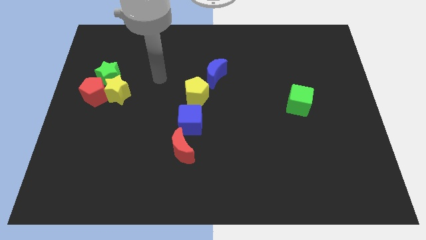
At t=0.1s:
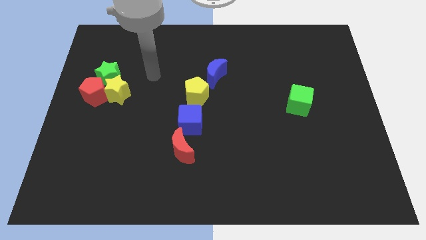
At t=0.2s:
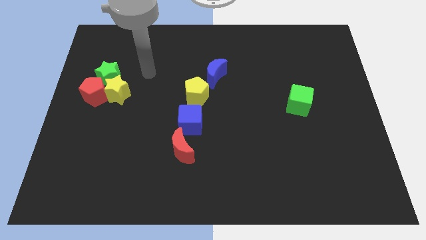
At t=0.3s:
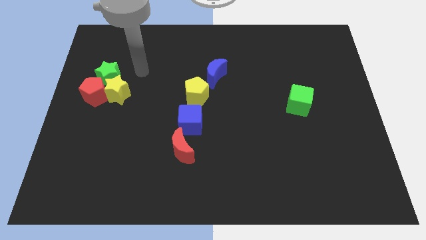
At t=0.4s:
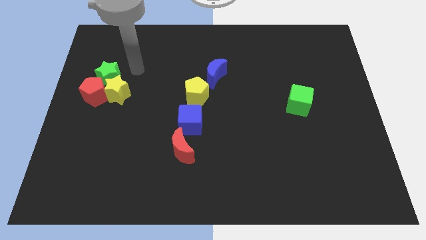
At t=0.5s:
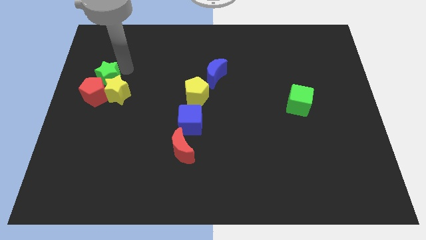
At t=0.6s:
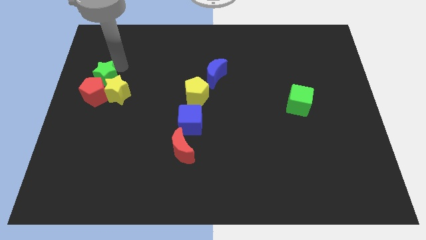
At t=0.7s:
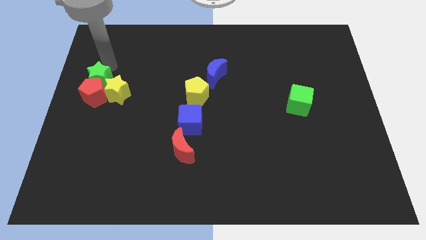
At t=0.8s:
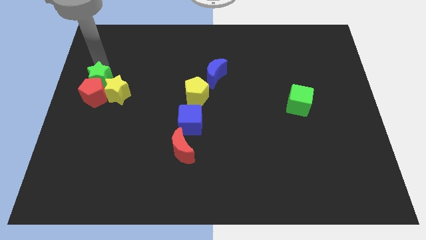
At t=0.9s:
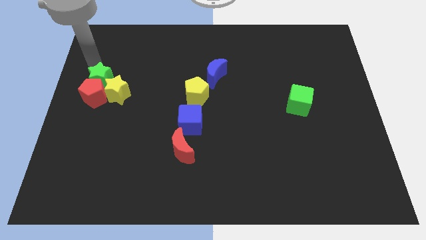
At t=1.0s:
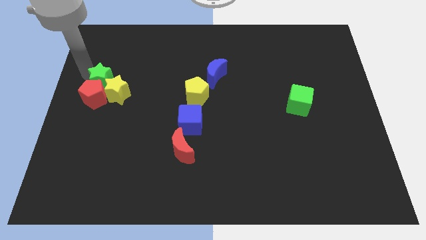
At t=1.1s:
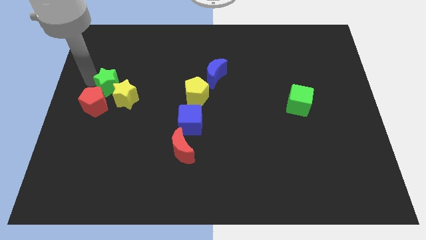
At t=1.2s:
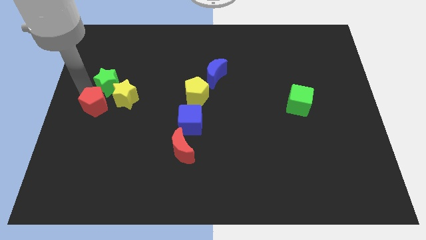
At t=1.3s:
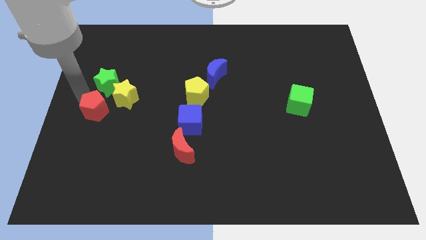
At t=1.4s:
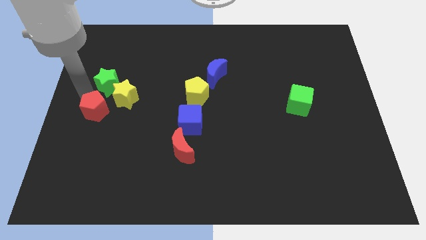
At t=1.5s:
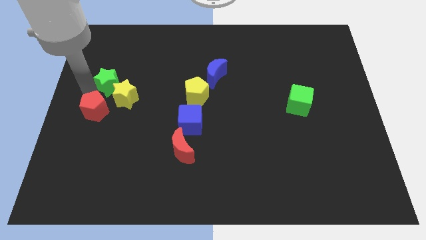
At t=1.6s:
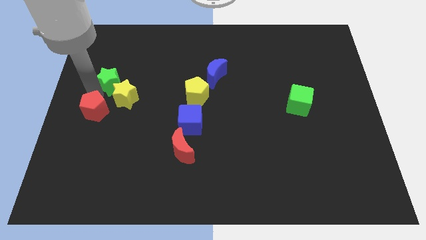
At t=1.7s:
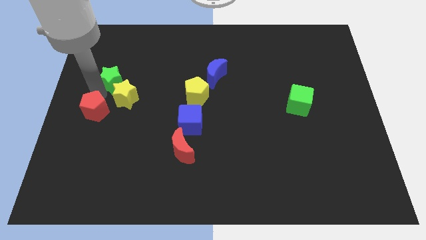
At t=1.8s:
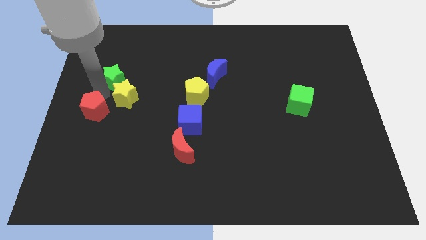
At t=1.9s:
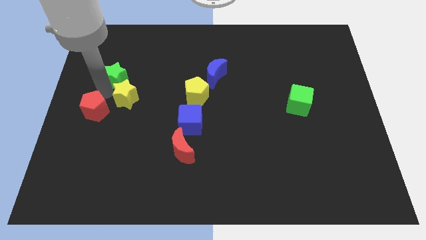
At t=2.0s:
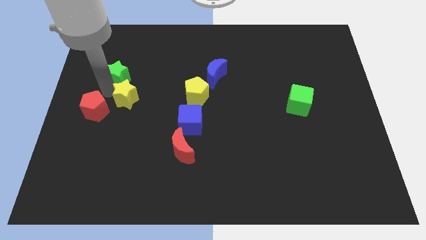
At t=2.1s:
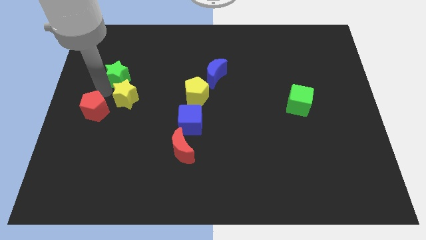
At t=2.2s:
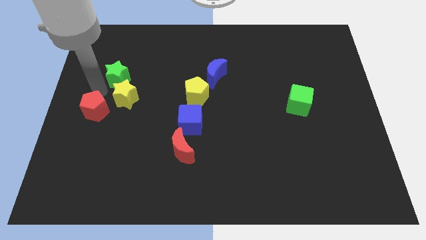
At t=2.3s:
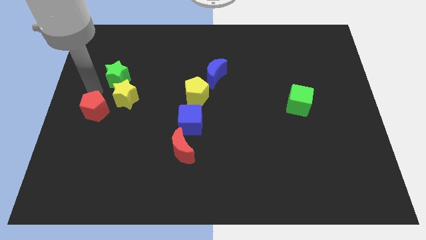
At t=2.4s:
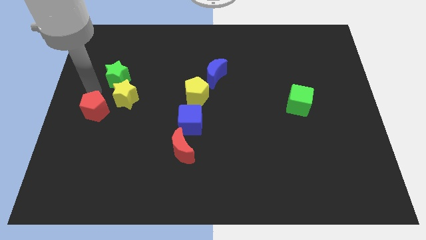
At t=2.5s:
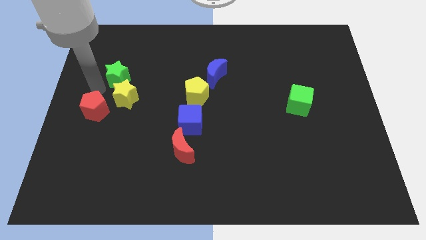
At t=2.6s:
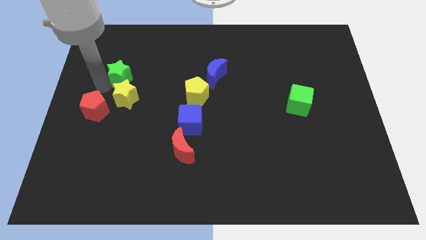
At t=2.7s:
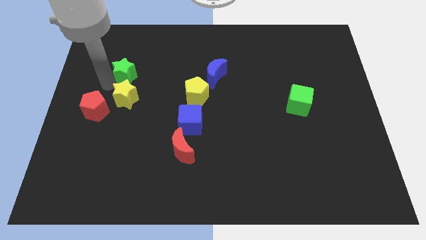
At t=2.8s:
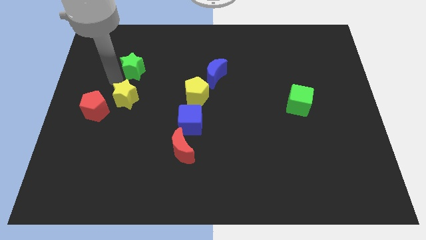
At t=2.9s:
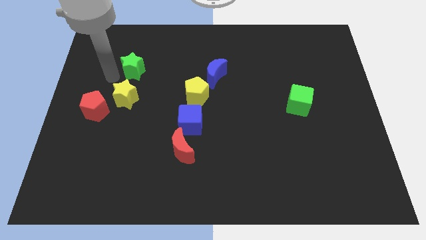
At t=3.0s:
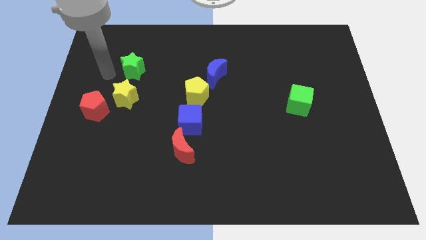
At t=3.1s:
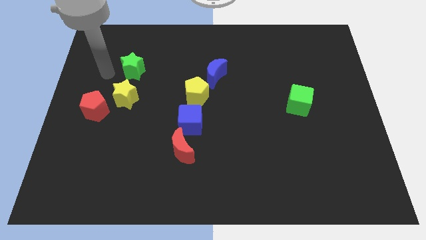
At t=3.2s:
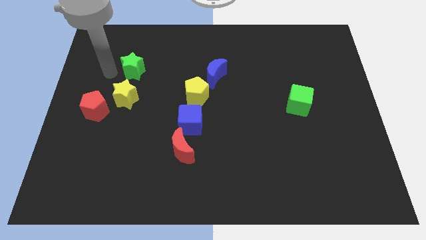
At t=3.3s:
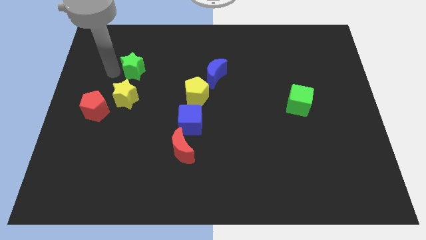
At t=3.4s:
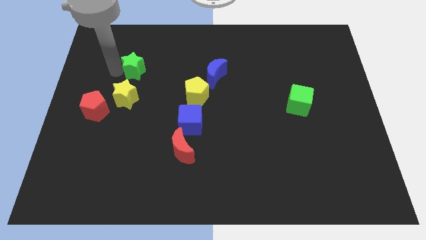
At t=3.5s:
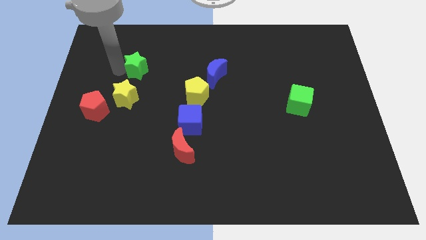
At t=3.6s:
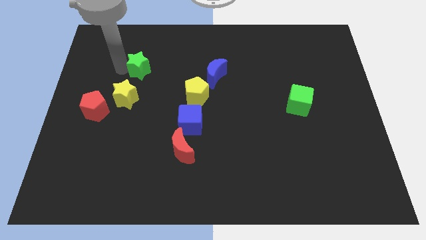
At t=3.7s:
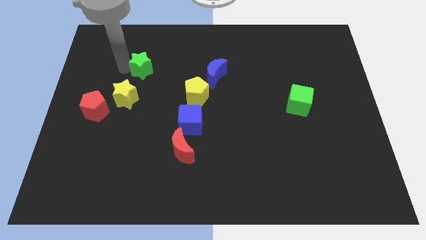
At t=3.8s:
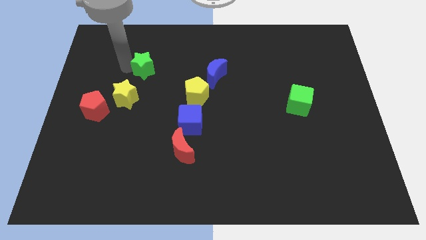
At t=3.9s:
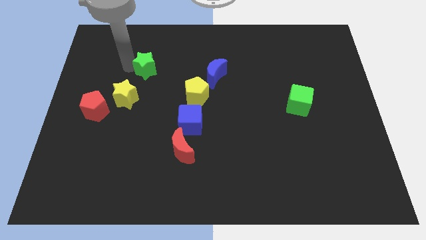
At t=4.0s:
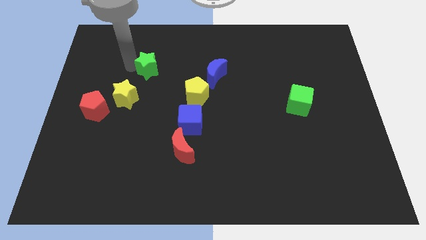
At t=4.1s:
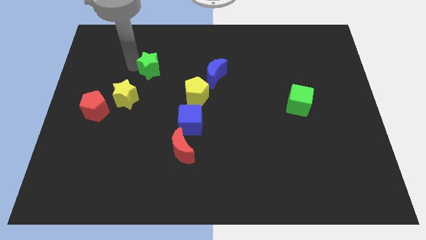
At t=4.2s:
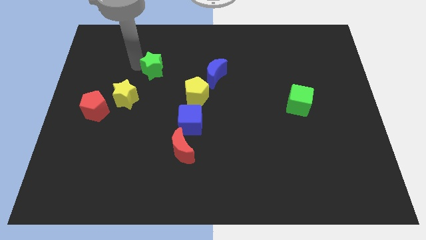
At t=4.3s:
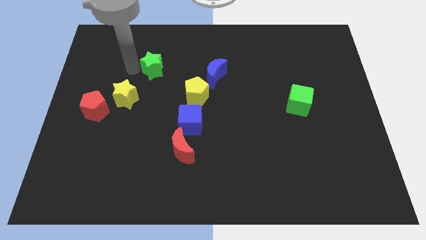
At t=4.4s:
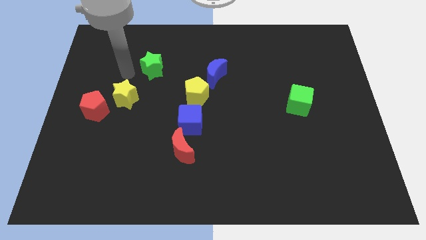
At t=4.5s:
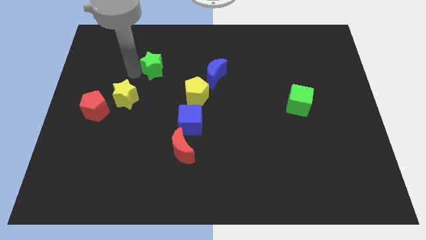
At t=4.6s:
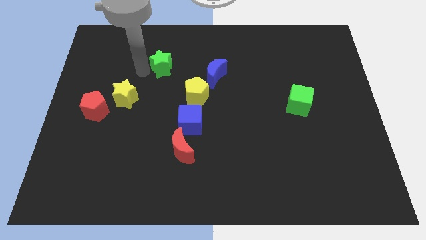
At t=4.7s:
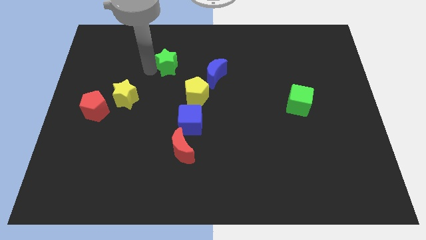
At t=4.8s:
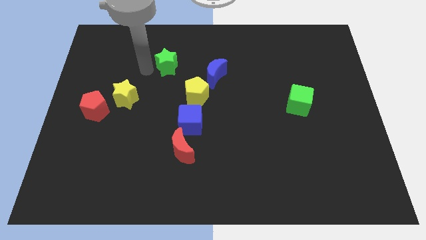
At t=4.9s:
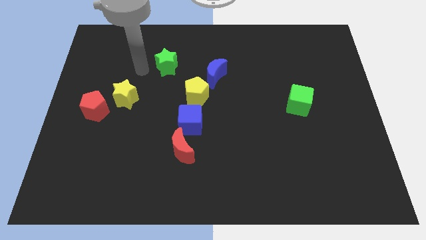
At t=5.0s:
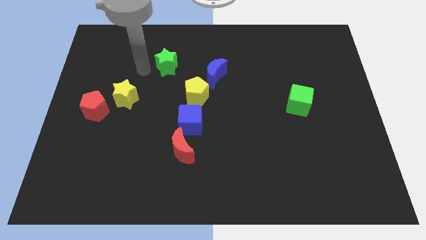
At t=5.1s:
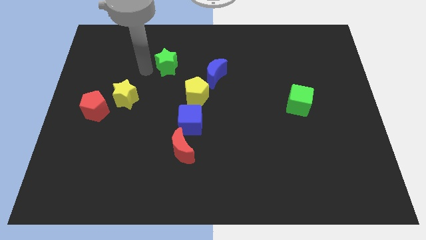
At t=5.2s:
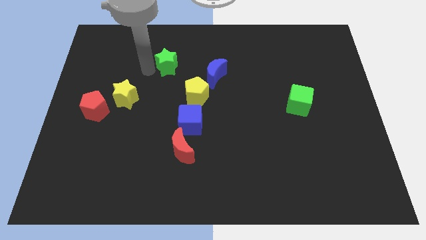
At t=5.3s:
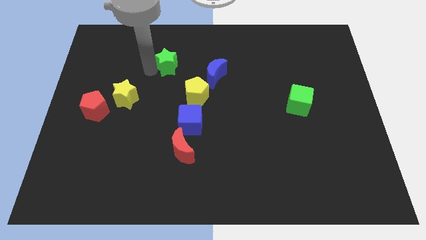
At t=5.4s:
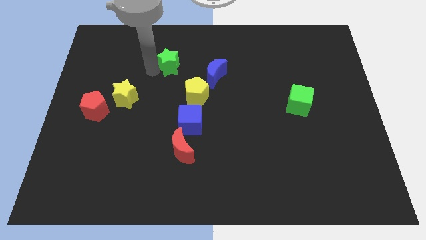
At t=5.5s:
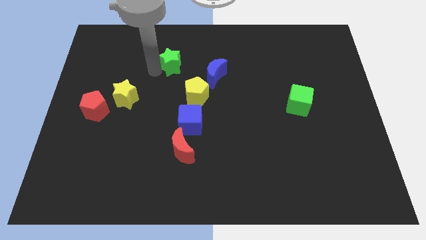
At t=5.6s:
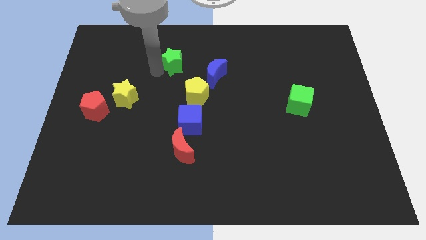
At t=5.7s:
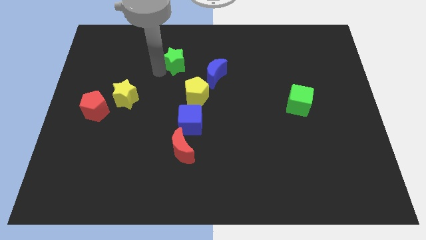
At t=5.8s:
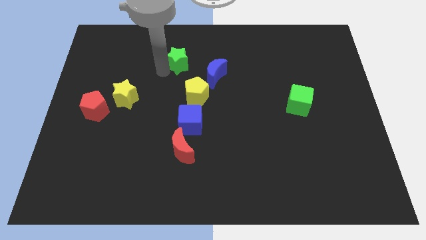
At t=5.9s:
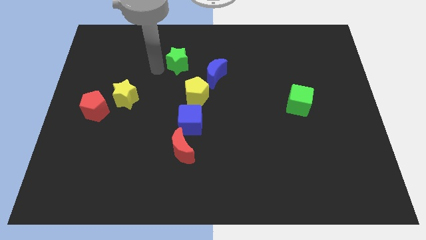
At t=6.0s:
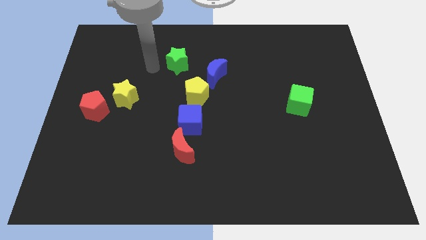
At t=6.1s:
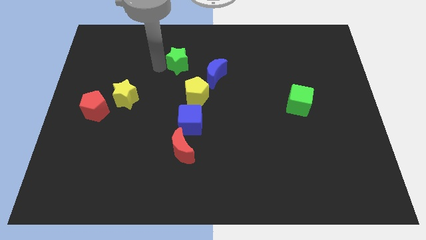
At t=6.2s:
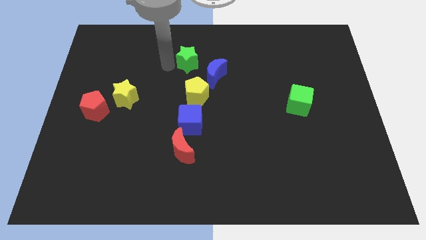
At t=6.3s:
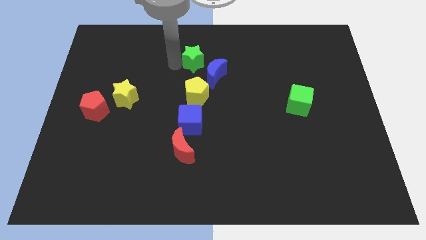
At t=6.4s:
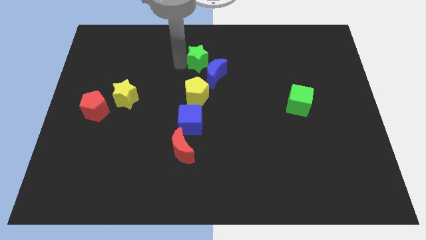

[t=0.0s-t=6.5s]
move the green star to the right

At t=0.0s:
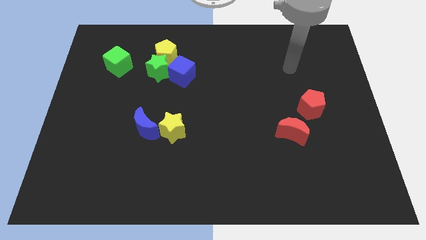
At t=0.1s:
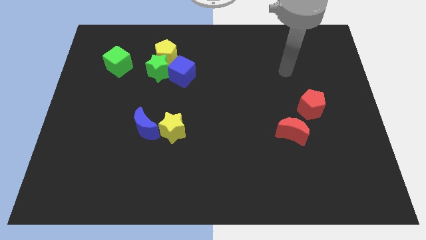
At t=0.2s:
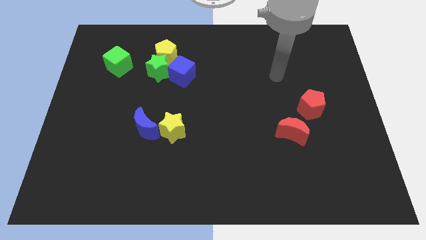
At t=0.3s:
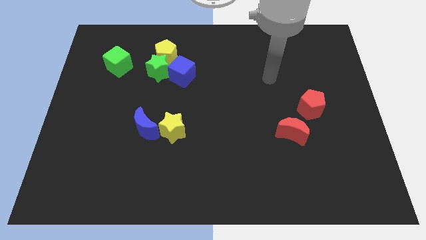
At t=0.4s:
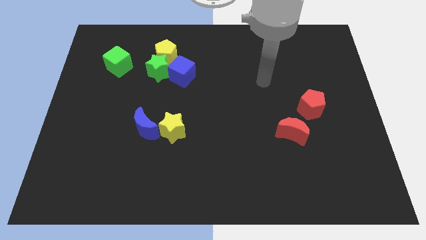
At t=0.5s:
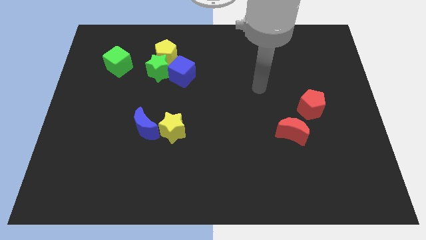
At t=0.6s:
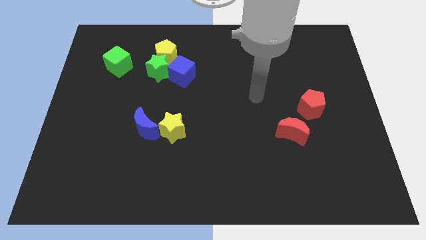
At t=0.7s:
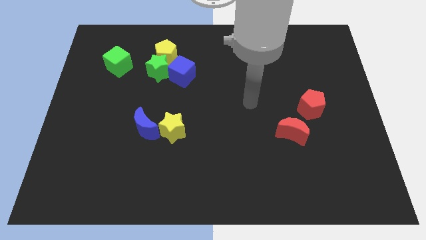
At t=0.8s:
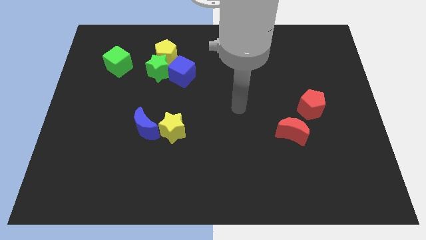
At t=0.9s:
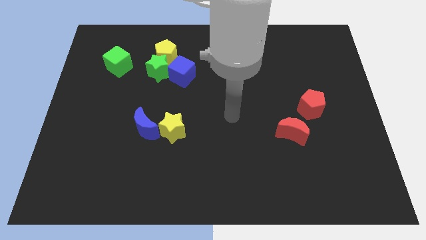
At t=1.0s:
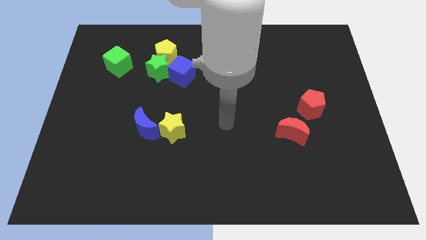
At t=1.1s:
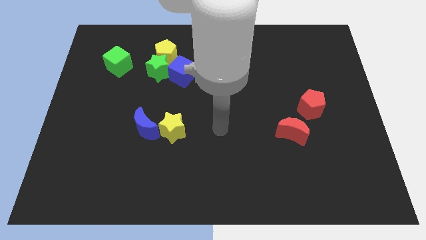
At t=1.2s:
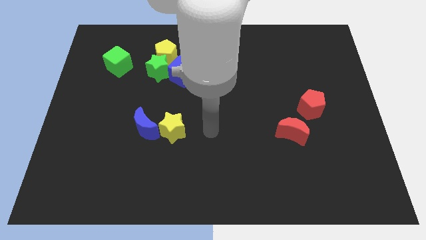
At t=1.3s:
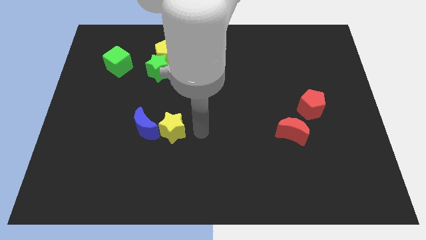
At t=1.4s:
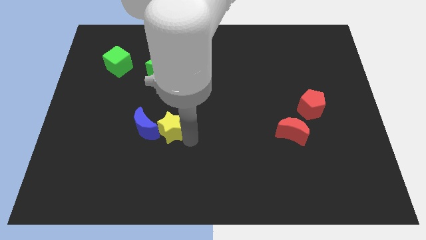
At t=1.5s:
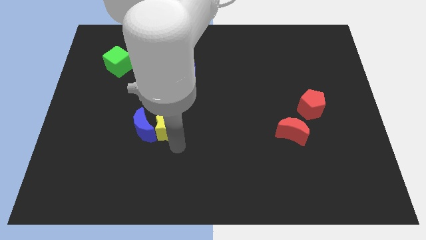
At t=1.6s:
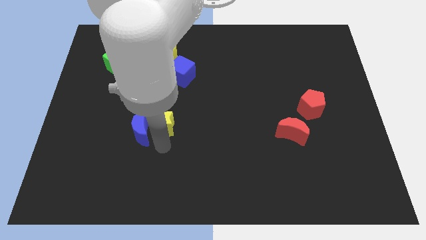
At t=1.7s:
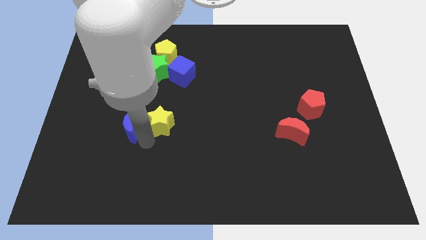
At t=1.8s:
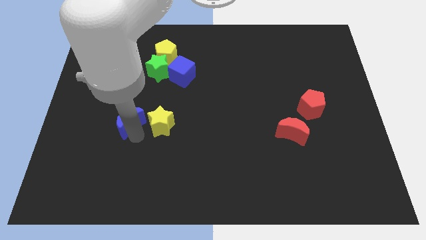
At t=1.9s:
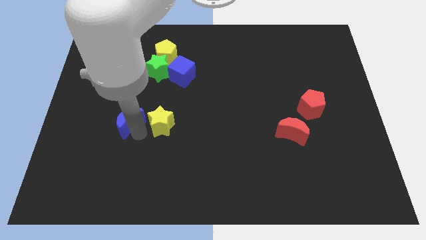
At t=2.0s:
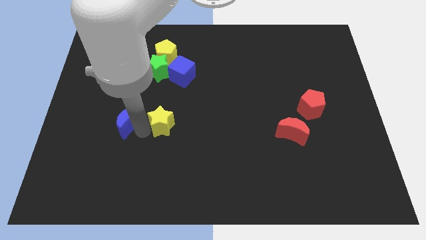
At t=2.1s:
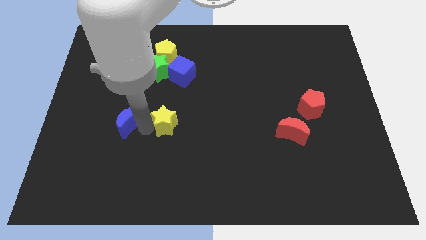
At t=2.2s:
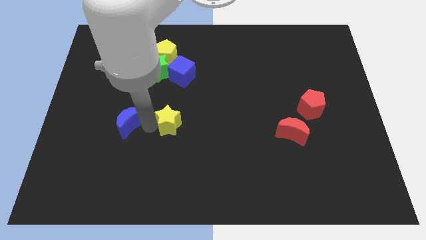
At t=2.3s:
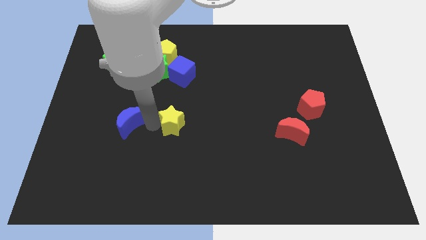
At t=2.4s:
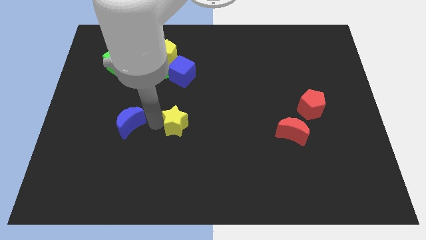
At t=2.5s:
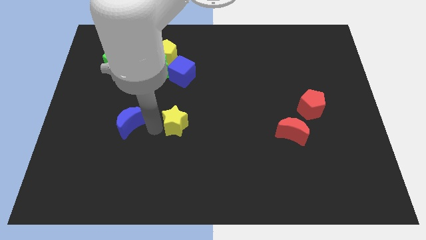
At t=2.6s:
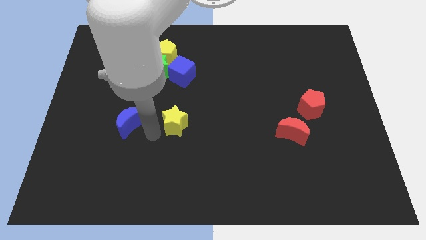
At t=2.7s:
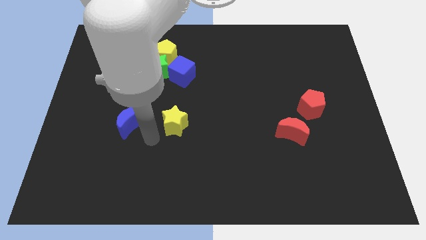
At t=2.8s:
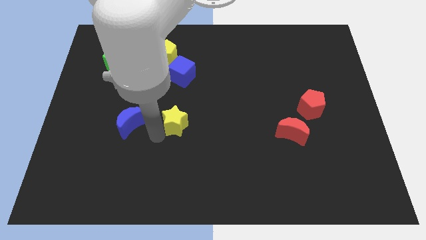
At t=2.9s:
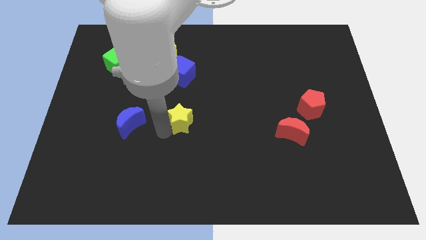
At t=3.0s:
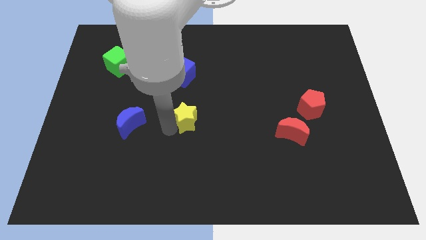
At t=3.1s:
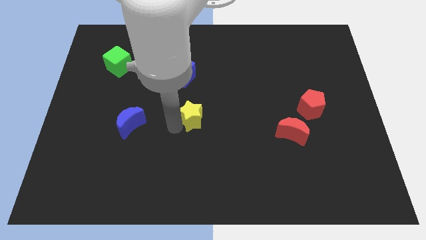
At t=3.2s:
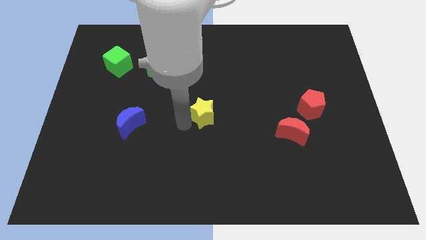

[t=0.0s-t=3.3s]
slightly slide the yellow star diagonally up and right
